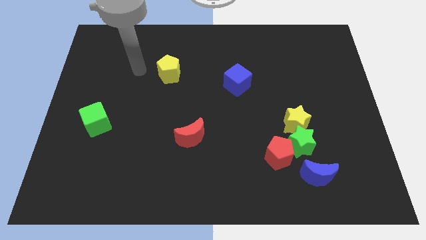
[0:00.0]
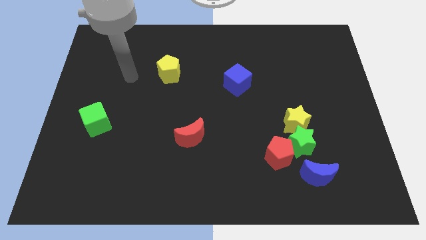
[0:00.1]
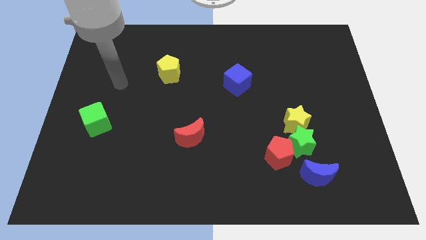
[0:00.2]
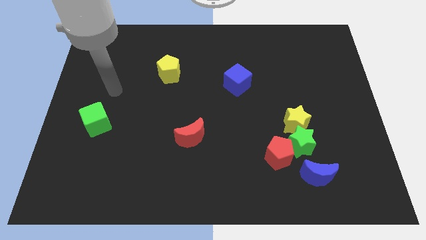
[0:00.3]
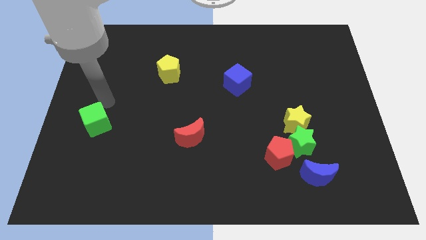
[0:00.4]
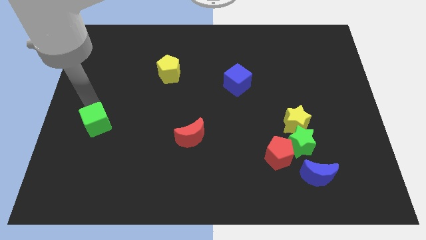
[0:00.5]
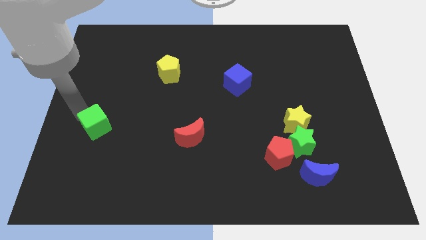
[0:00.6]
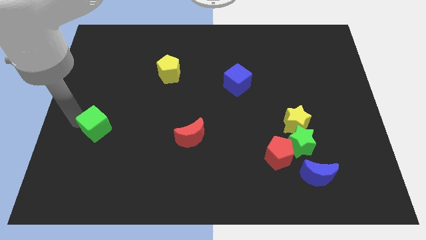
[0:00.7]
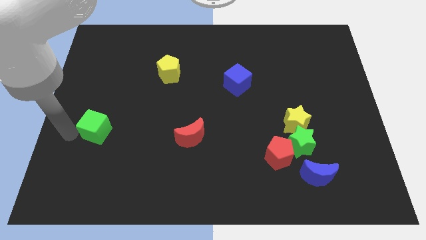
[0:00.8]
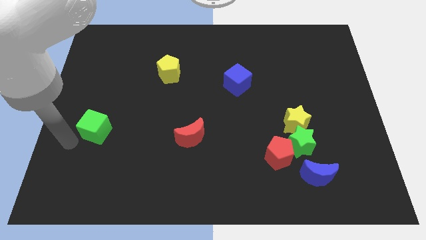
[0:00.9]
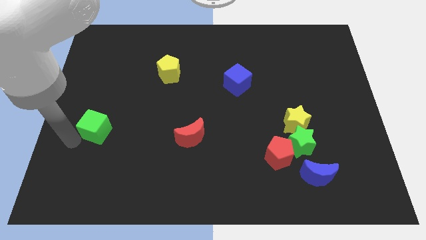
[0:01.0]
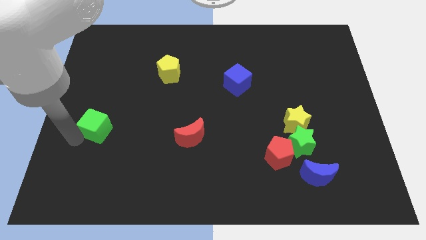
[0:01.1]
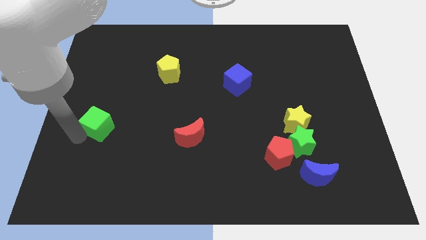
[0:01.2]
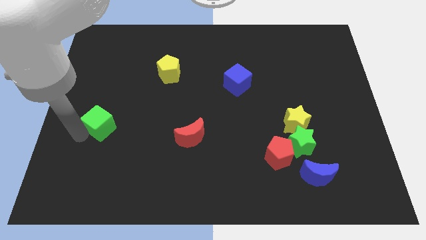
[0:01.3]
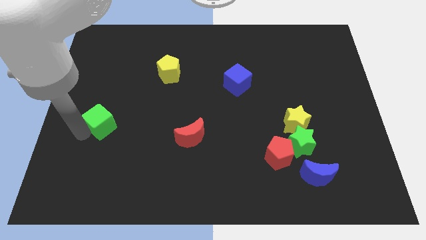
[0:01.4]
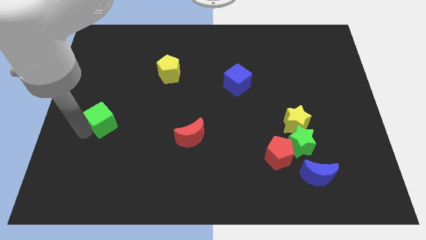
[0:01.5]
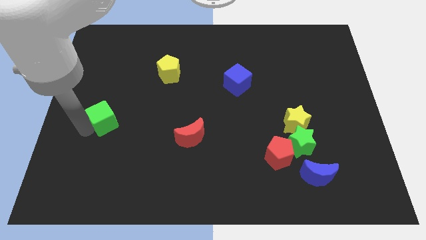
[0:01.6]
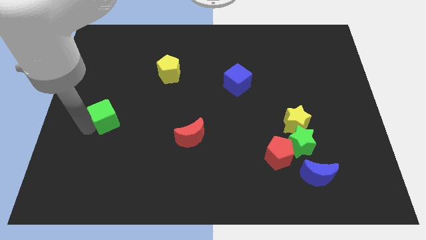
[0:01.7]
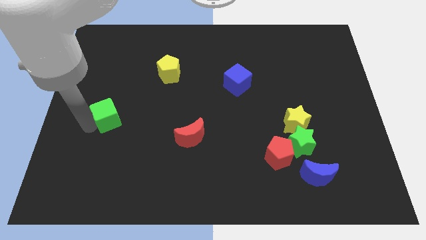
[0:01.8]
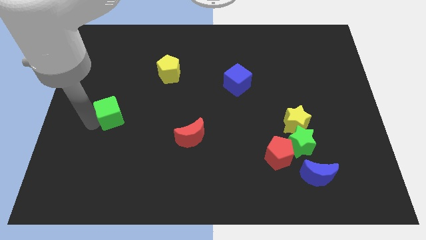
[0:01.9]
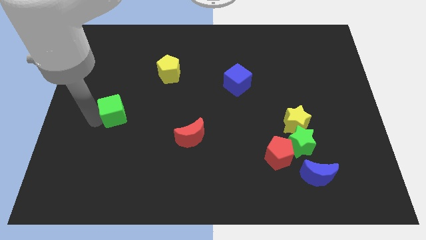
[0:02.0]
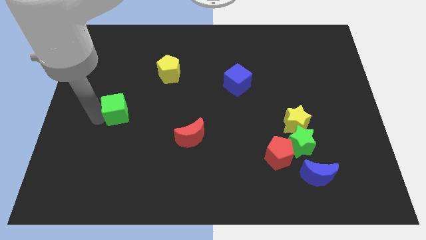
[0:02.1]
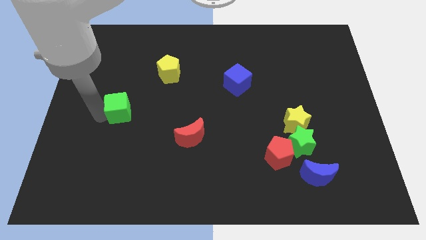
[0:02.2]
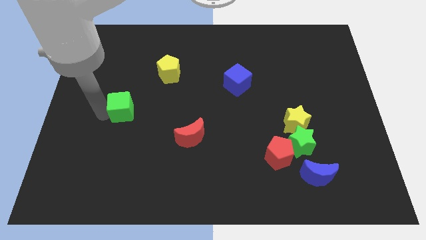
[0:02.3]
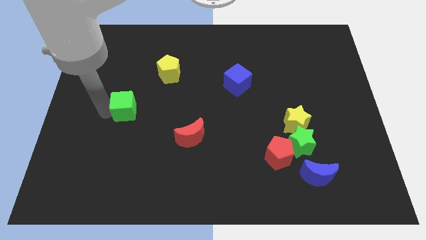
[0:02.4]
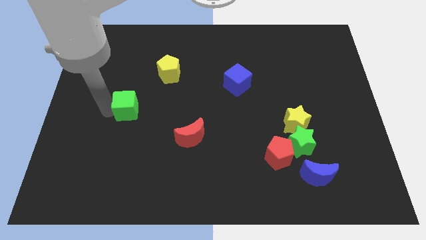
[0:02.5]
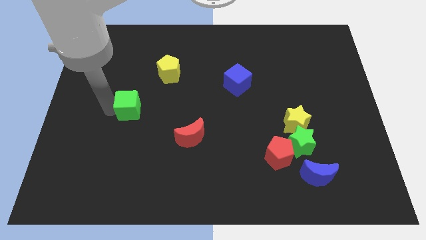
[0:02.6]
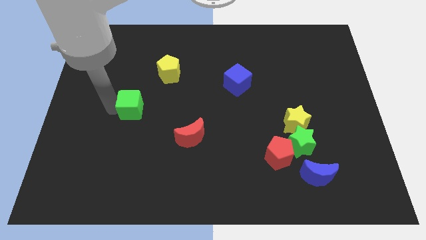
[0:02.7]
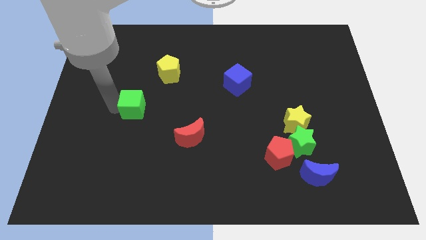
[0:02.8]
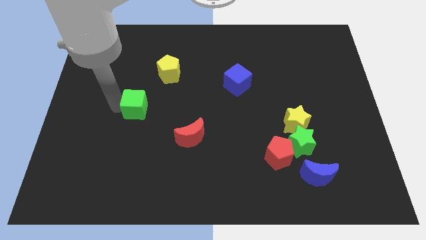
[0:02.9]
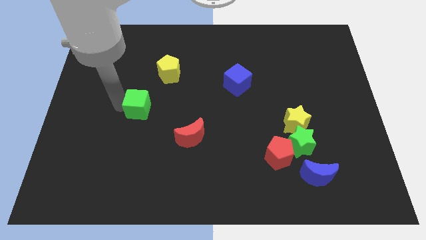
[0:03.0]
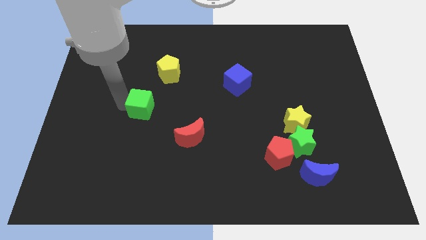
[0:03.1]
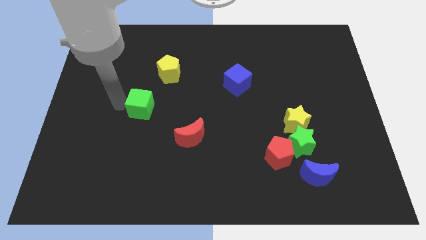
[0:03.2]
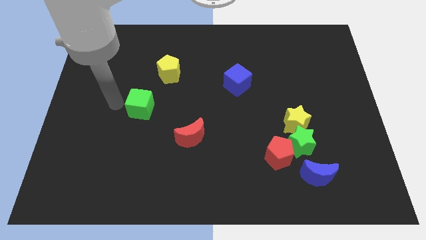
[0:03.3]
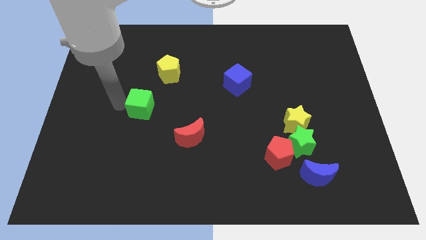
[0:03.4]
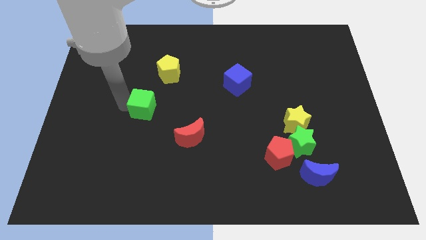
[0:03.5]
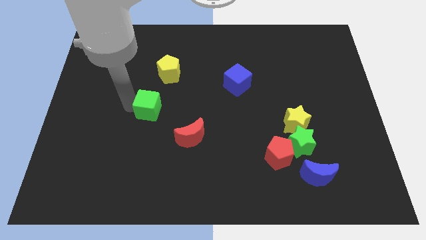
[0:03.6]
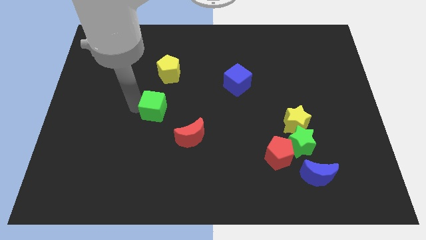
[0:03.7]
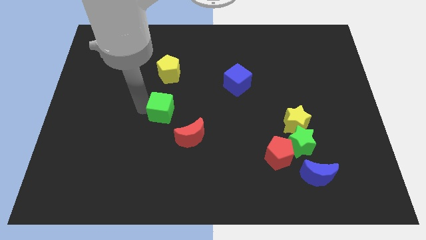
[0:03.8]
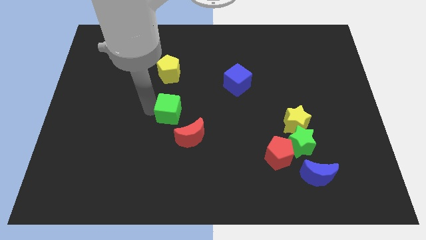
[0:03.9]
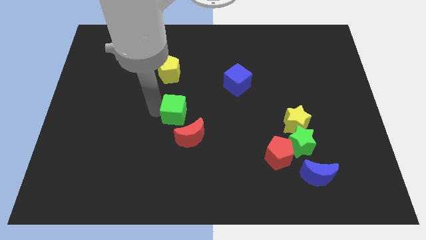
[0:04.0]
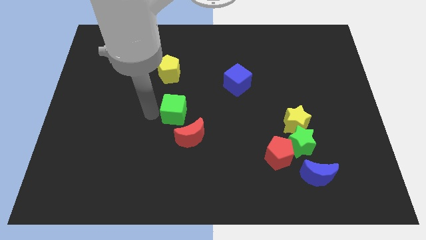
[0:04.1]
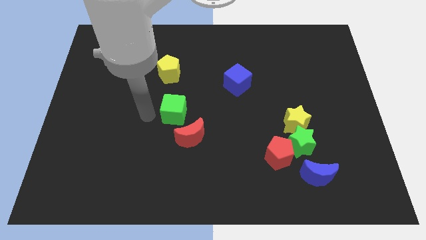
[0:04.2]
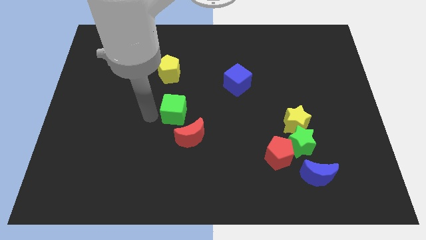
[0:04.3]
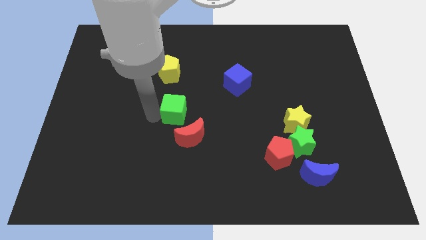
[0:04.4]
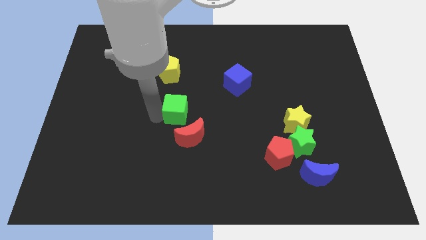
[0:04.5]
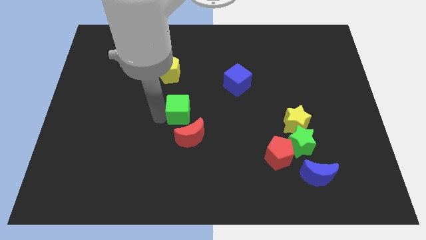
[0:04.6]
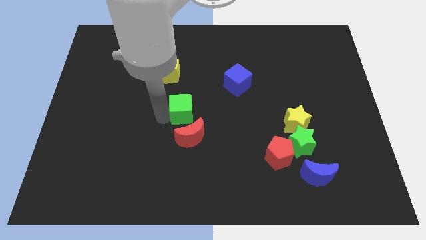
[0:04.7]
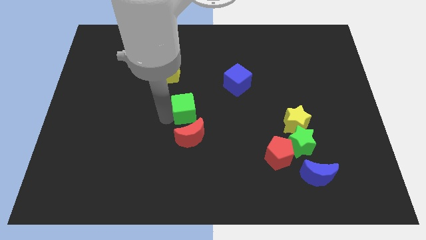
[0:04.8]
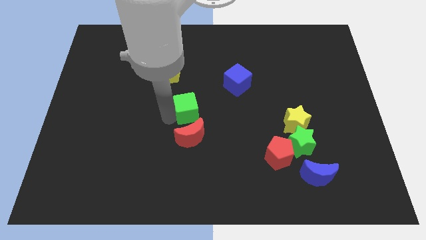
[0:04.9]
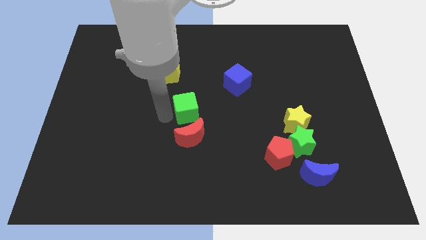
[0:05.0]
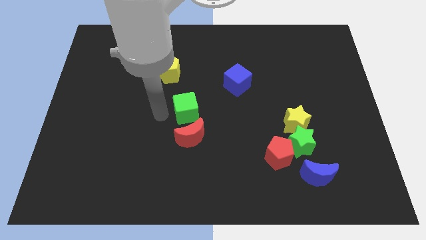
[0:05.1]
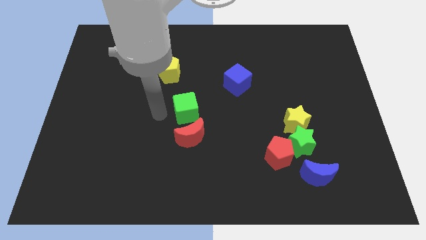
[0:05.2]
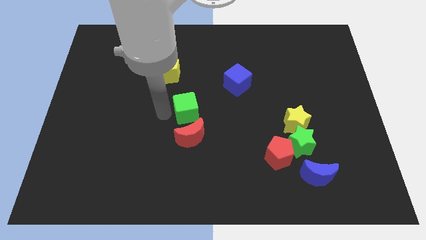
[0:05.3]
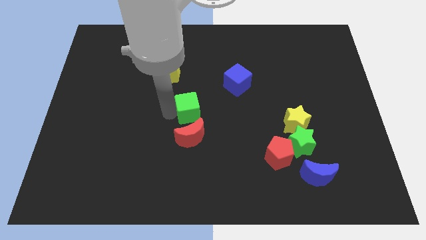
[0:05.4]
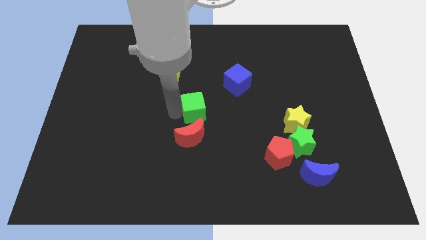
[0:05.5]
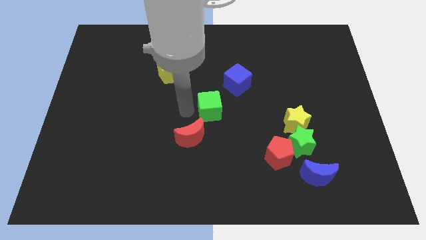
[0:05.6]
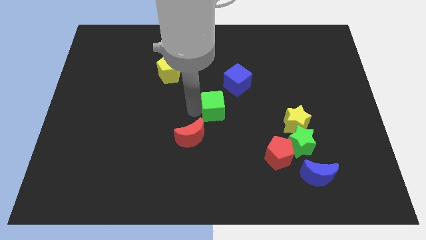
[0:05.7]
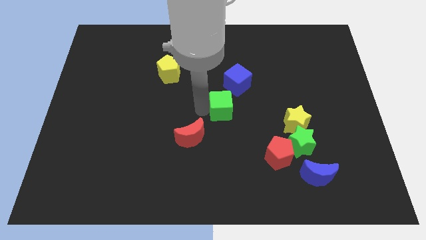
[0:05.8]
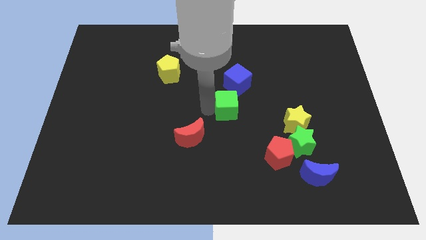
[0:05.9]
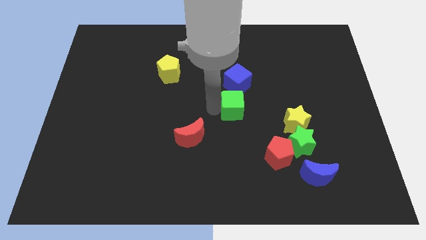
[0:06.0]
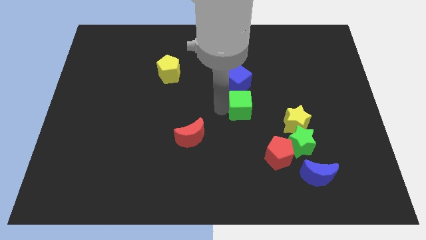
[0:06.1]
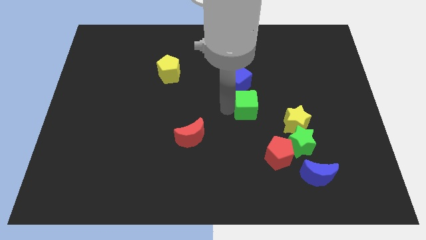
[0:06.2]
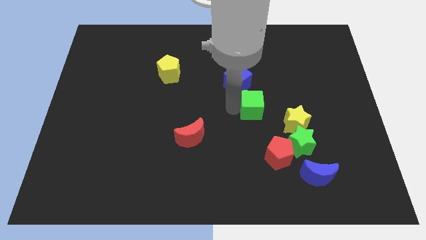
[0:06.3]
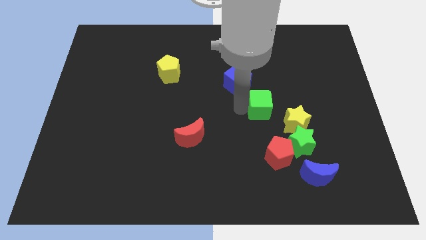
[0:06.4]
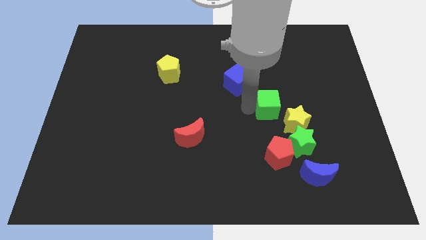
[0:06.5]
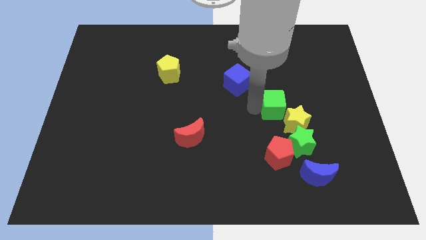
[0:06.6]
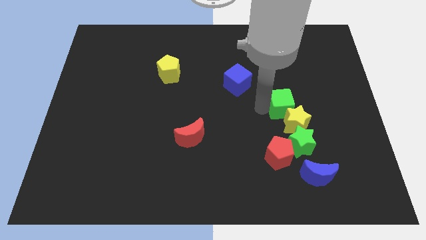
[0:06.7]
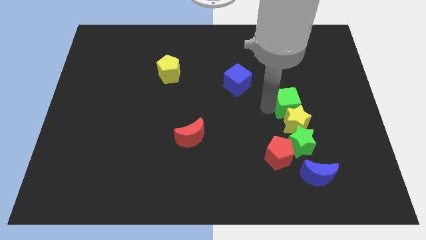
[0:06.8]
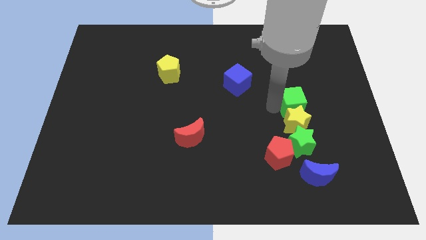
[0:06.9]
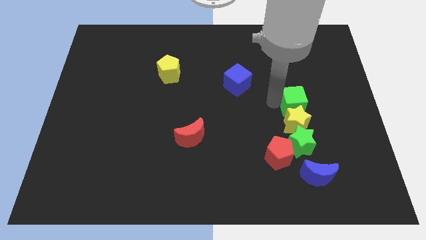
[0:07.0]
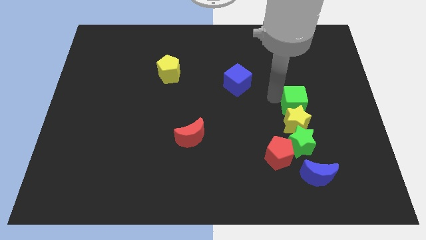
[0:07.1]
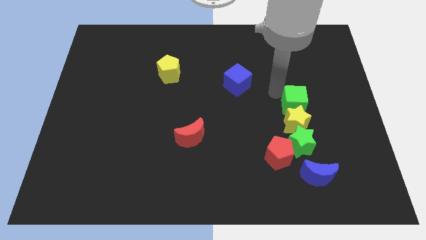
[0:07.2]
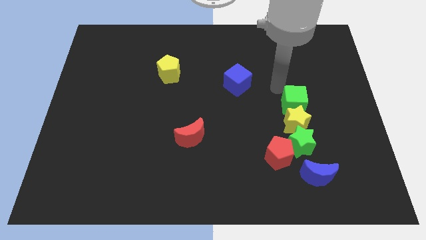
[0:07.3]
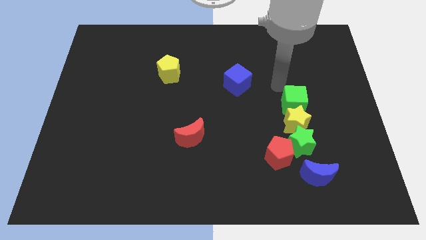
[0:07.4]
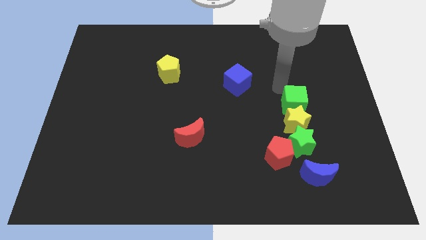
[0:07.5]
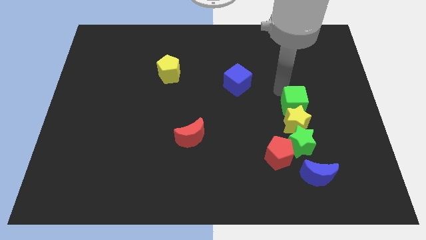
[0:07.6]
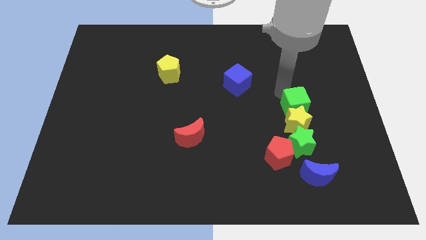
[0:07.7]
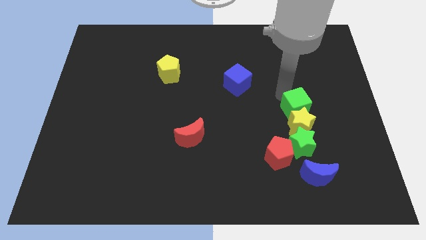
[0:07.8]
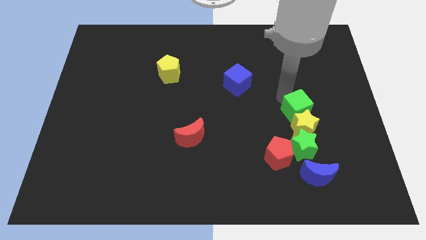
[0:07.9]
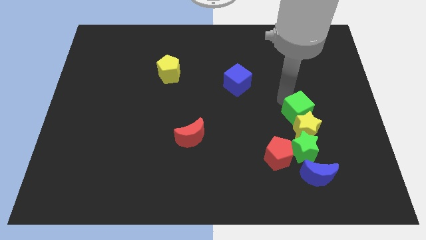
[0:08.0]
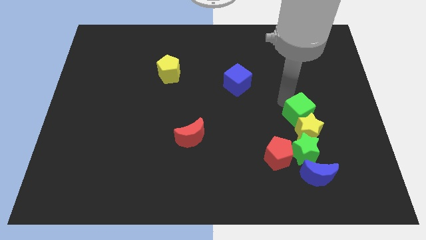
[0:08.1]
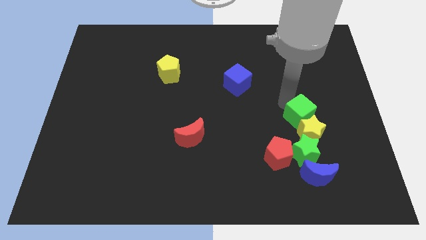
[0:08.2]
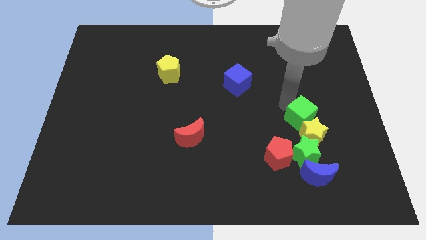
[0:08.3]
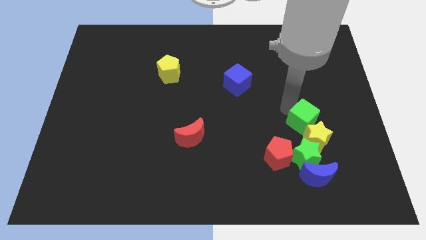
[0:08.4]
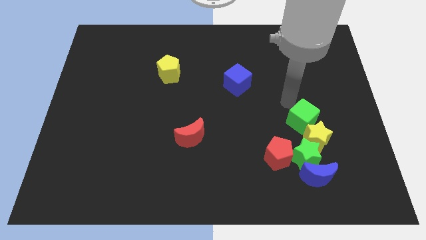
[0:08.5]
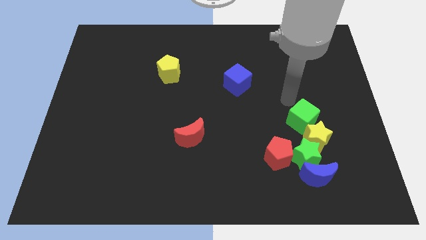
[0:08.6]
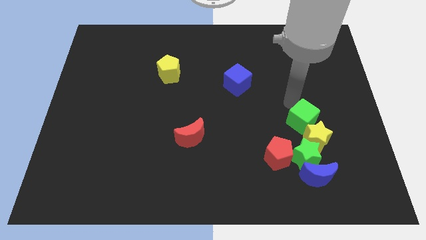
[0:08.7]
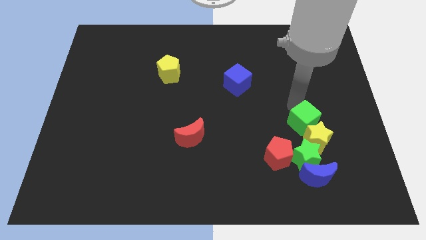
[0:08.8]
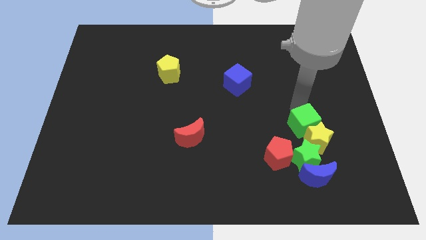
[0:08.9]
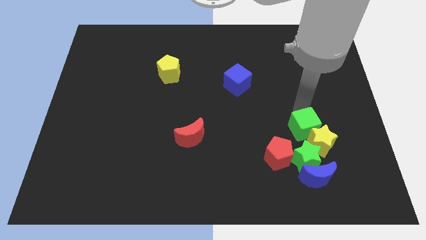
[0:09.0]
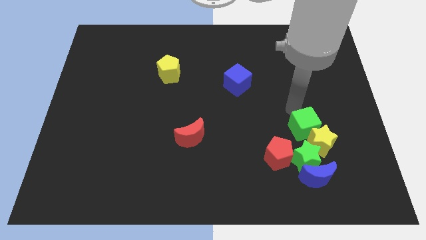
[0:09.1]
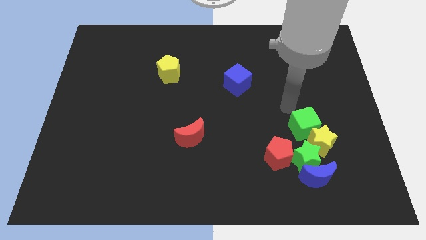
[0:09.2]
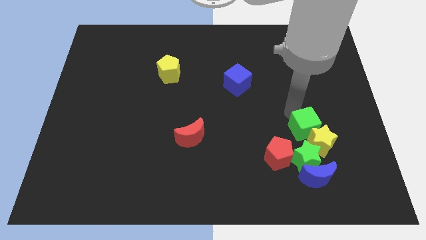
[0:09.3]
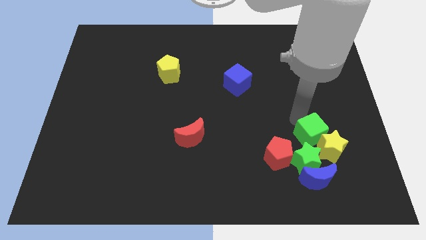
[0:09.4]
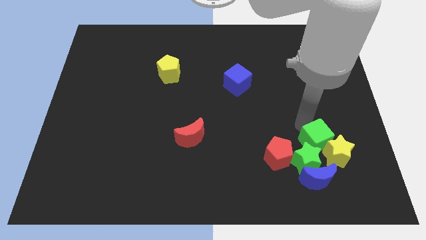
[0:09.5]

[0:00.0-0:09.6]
slide the green cube to the right side of the red pentagon
